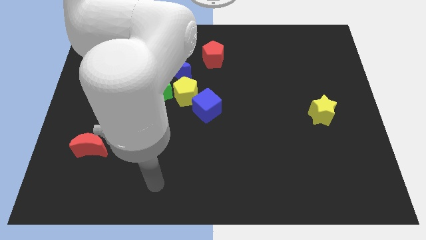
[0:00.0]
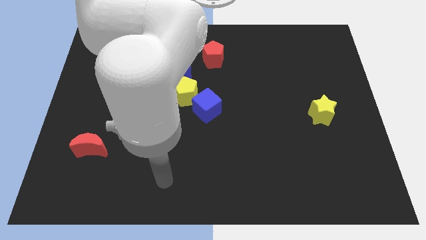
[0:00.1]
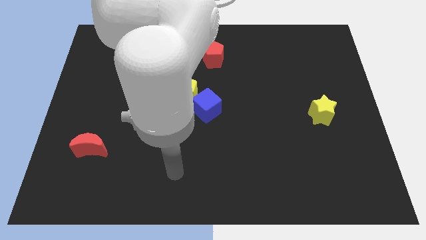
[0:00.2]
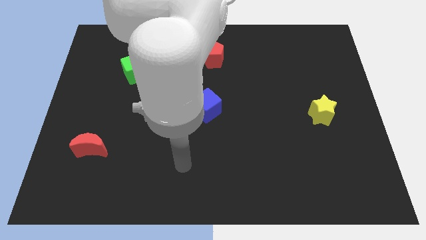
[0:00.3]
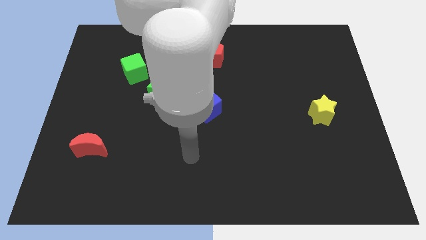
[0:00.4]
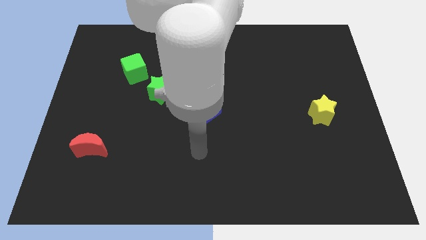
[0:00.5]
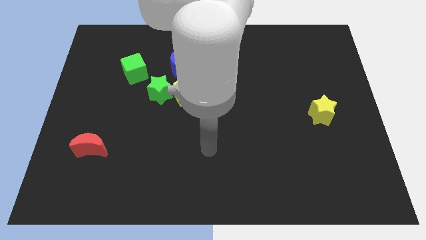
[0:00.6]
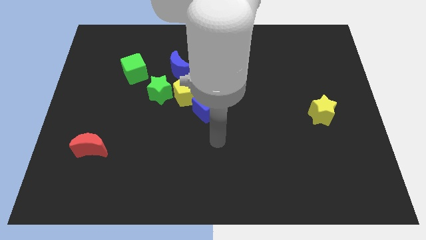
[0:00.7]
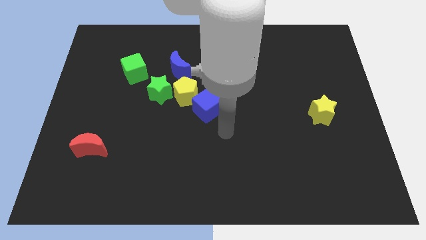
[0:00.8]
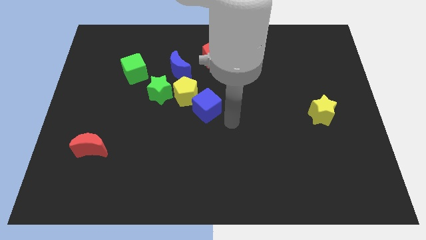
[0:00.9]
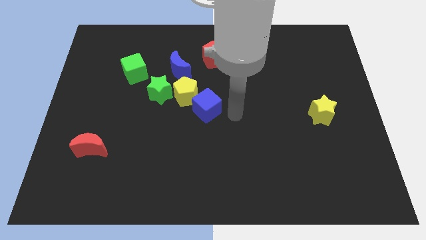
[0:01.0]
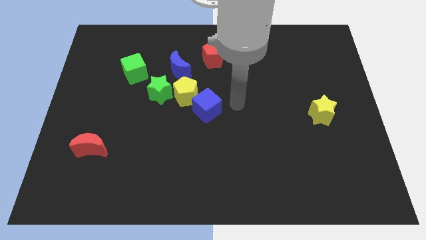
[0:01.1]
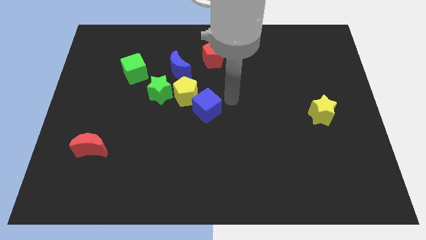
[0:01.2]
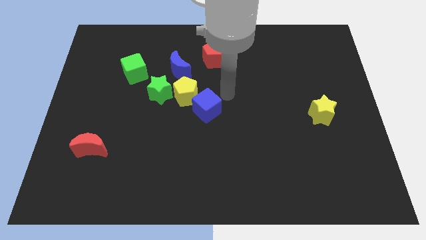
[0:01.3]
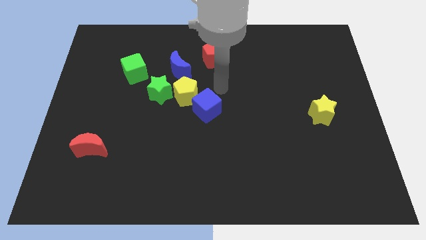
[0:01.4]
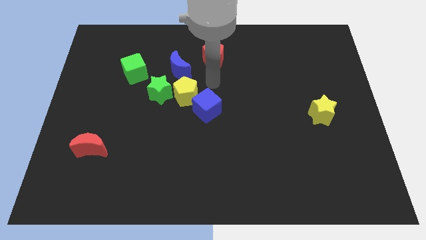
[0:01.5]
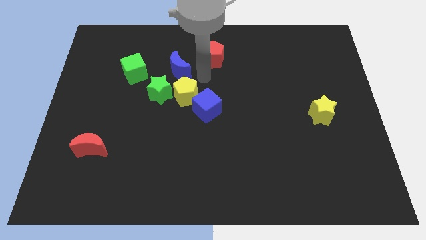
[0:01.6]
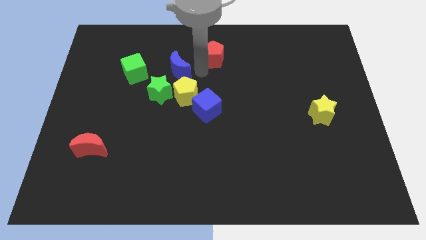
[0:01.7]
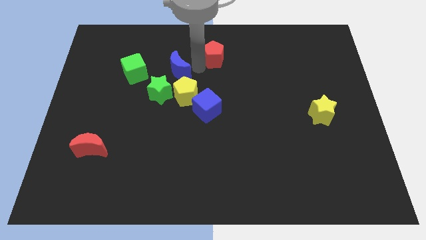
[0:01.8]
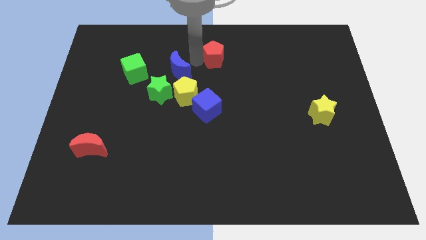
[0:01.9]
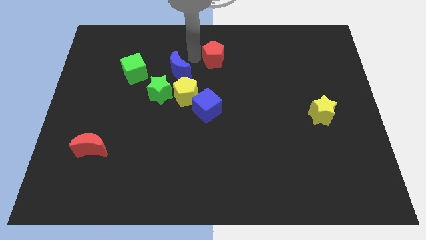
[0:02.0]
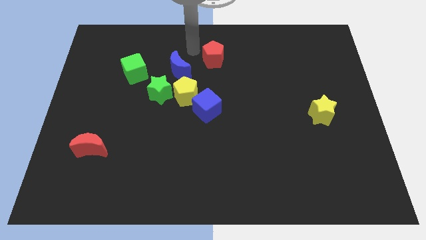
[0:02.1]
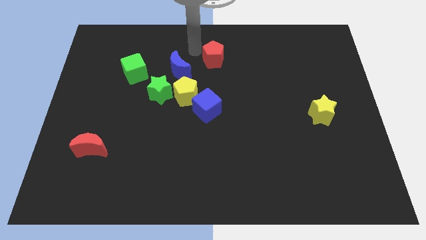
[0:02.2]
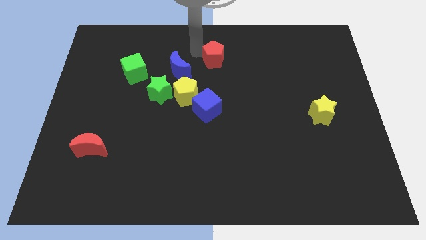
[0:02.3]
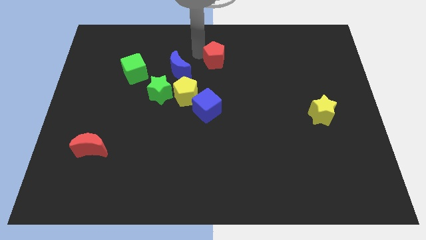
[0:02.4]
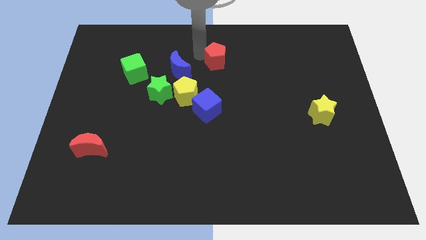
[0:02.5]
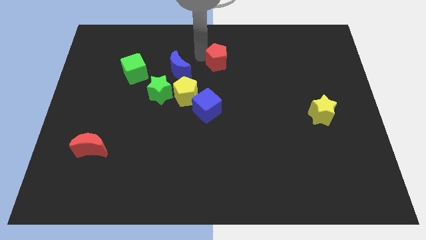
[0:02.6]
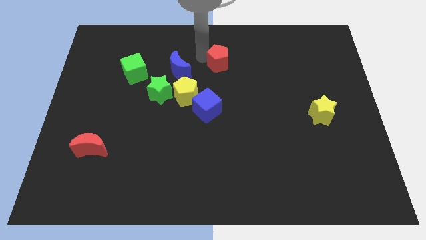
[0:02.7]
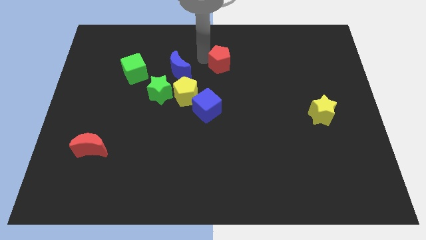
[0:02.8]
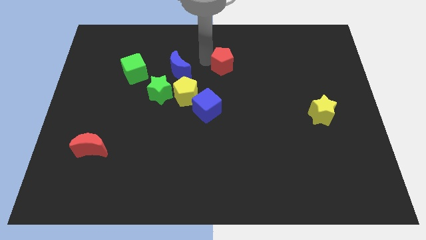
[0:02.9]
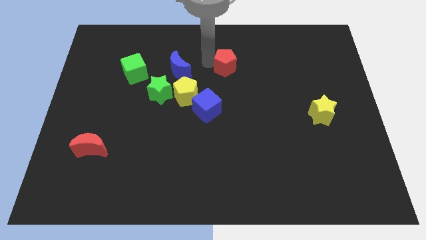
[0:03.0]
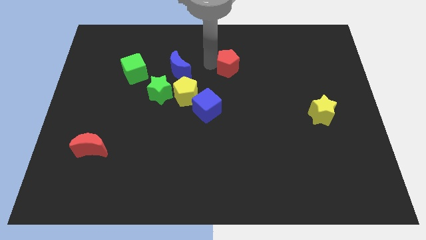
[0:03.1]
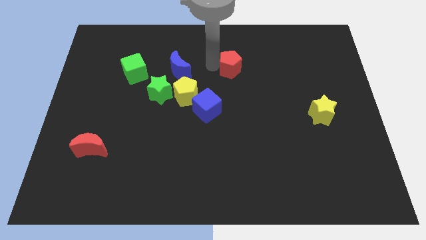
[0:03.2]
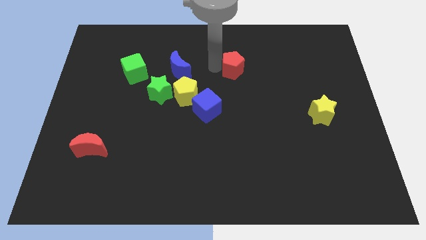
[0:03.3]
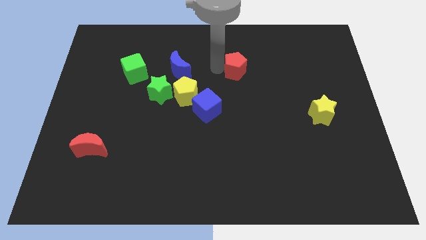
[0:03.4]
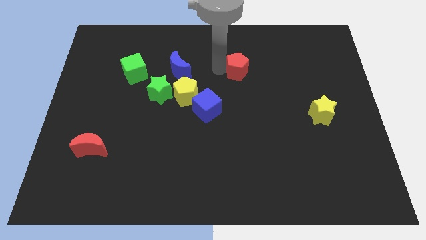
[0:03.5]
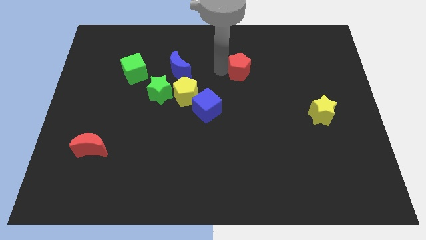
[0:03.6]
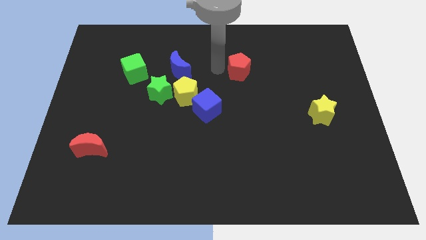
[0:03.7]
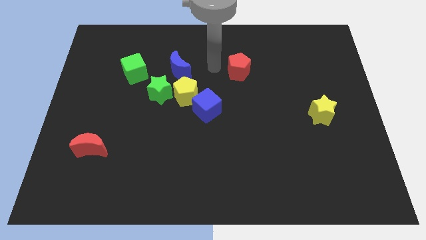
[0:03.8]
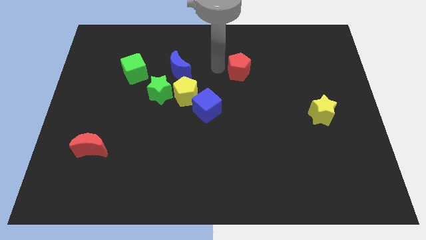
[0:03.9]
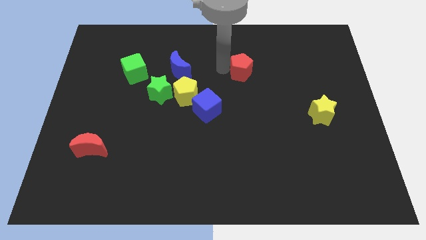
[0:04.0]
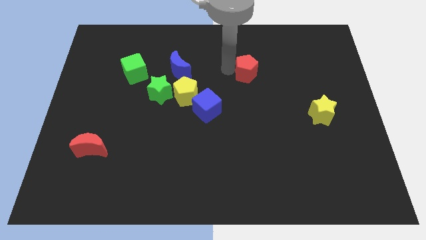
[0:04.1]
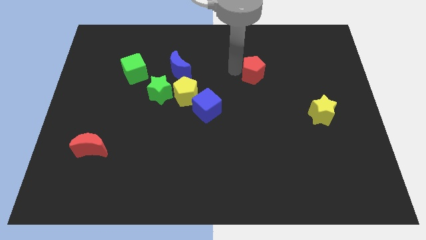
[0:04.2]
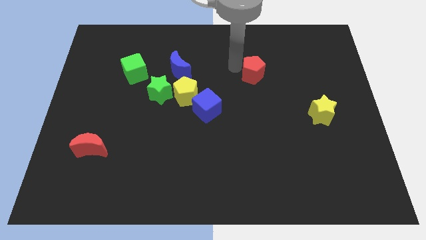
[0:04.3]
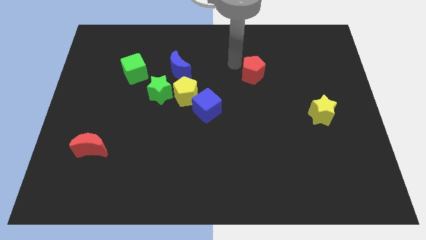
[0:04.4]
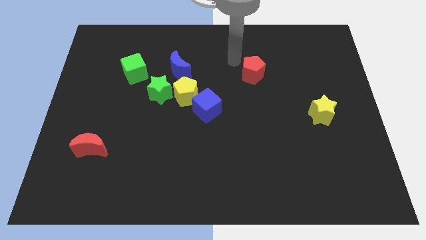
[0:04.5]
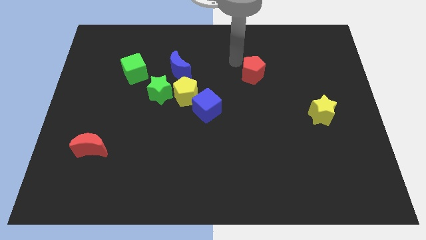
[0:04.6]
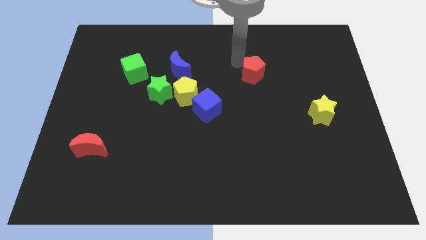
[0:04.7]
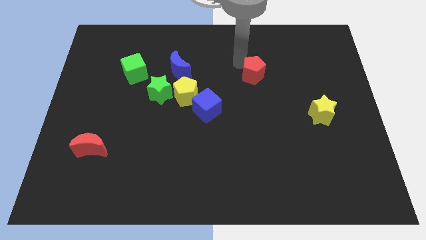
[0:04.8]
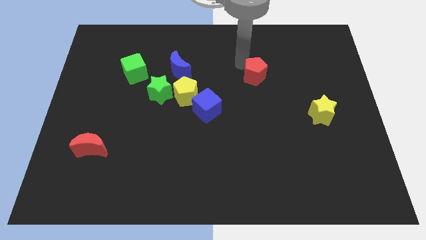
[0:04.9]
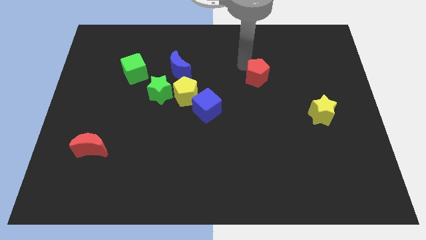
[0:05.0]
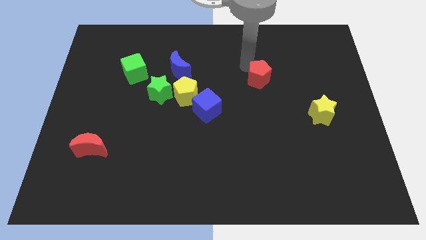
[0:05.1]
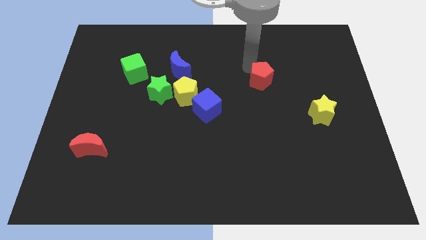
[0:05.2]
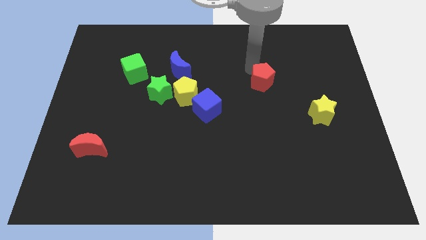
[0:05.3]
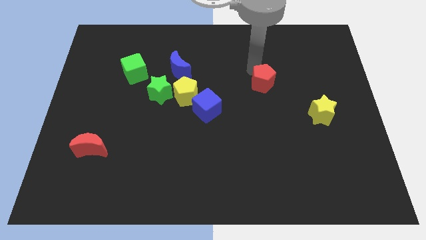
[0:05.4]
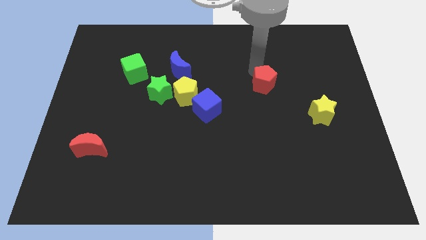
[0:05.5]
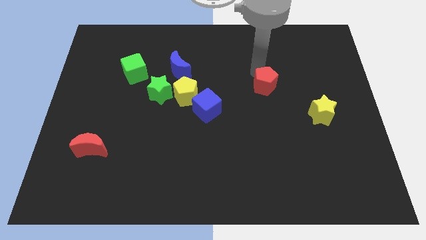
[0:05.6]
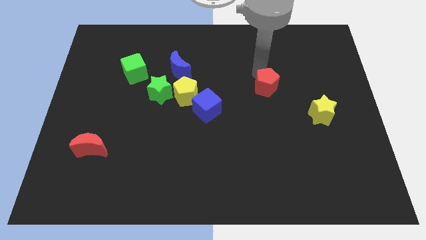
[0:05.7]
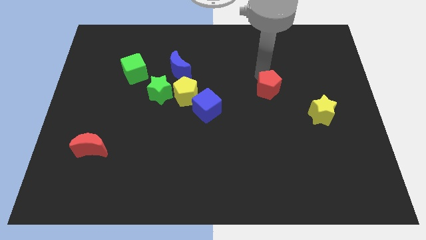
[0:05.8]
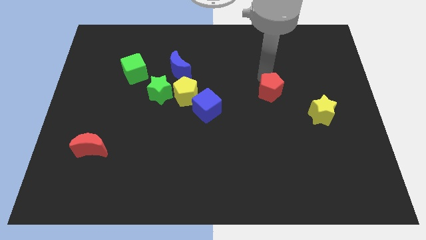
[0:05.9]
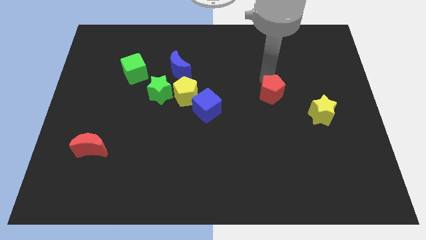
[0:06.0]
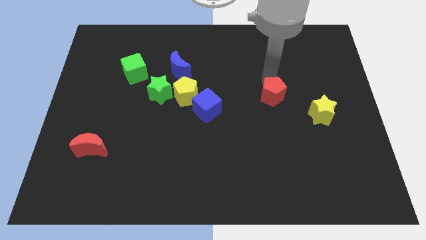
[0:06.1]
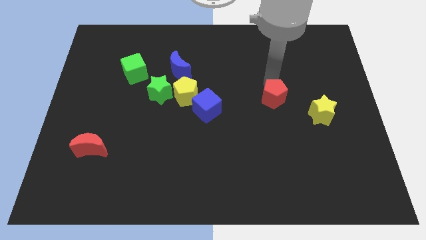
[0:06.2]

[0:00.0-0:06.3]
move the red pentagon down and then right

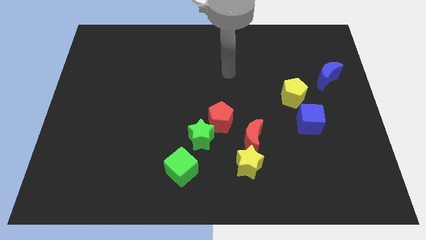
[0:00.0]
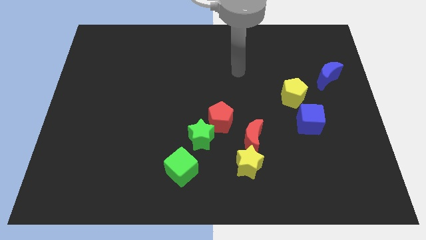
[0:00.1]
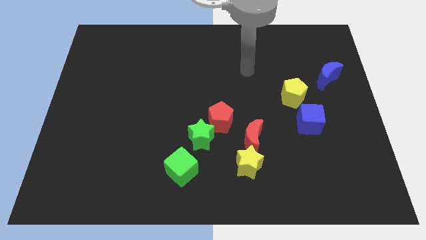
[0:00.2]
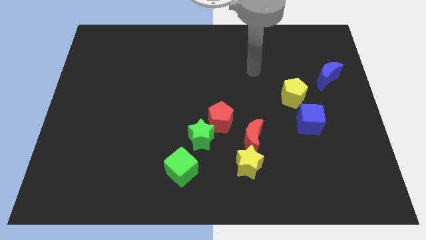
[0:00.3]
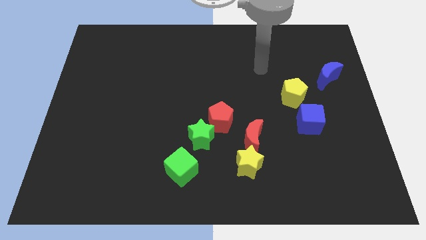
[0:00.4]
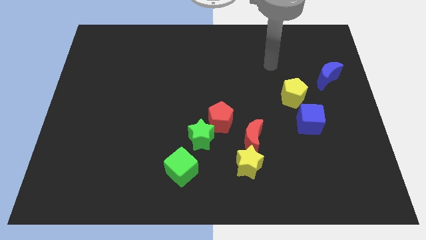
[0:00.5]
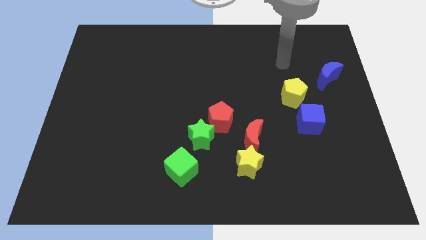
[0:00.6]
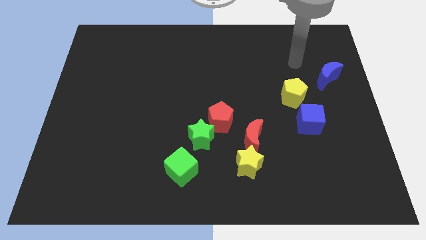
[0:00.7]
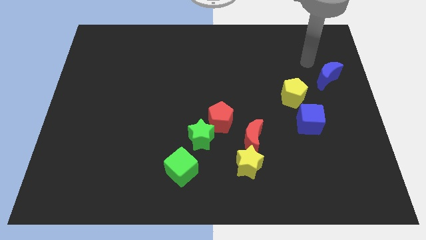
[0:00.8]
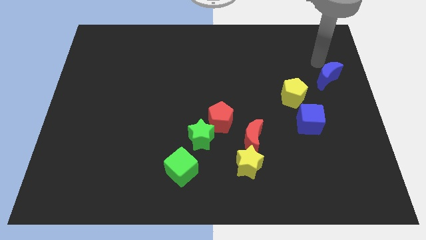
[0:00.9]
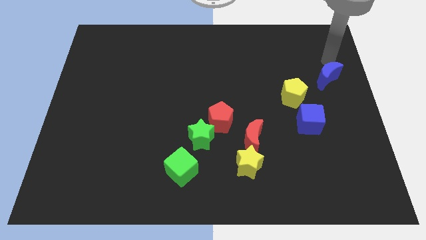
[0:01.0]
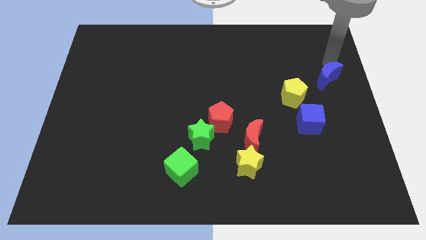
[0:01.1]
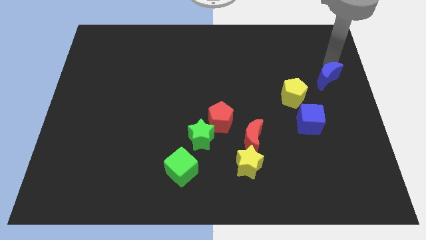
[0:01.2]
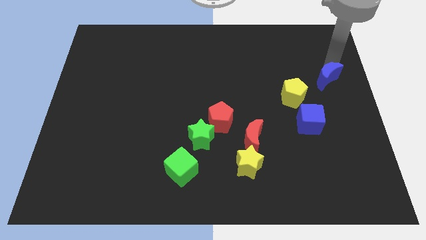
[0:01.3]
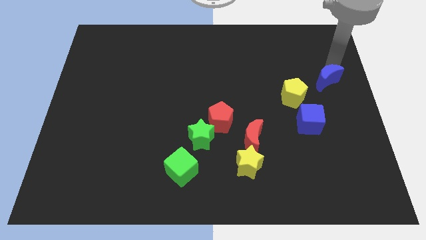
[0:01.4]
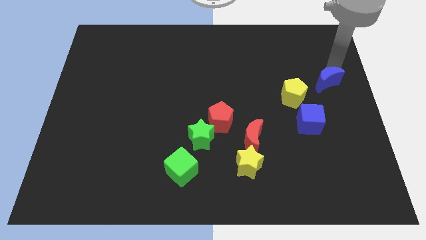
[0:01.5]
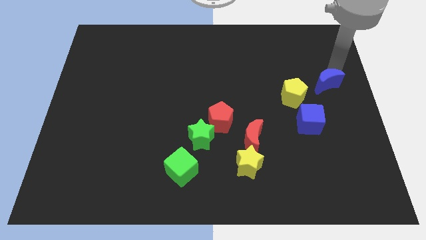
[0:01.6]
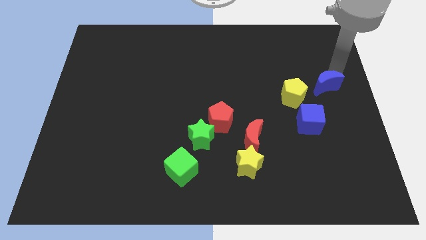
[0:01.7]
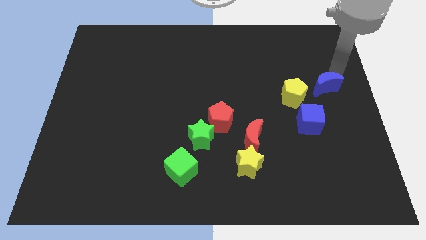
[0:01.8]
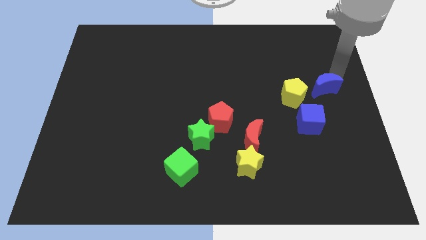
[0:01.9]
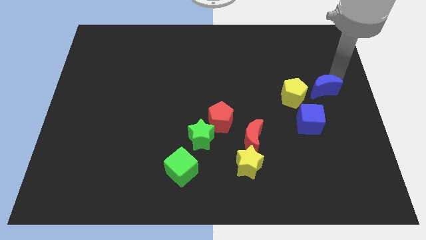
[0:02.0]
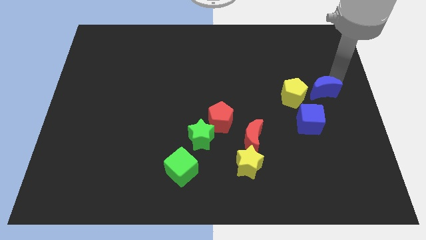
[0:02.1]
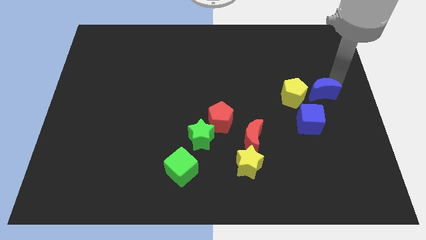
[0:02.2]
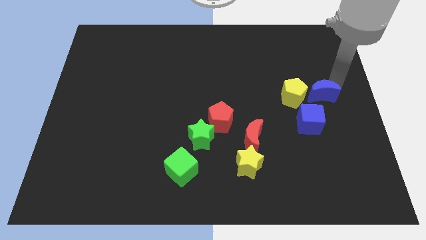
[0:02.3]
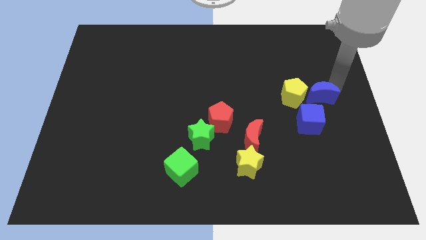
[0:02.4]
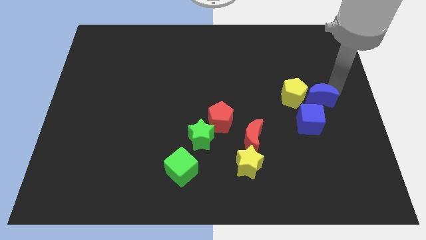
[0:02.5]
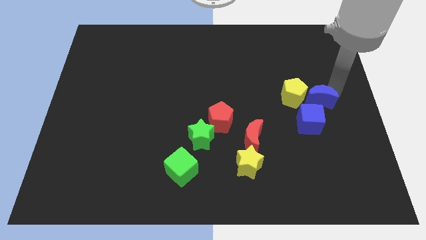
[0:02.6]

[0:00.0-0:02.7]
slightly slide the blue moon downwards and left diagonally
